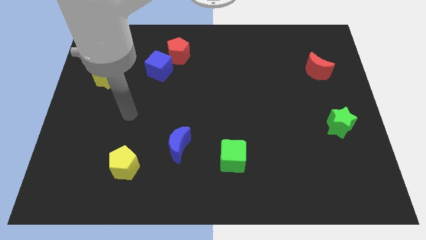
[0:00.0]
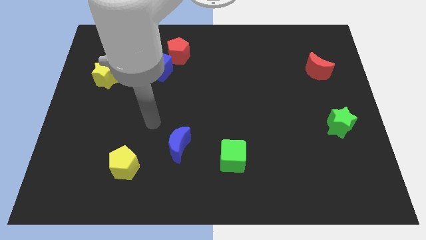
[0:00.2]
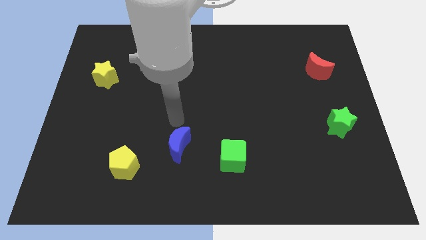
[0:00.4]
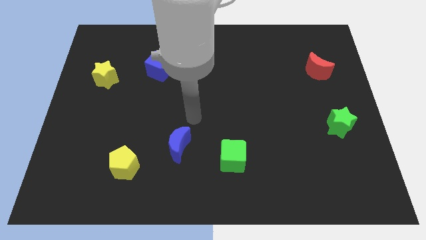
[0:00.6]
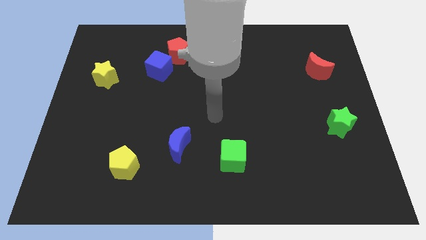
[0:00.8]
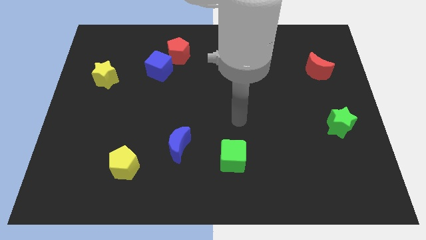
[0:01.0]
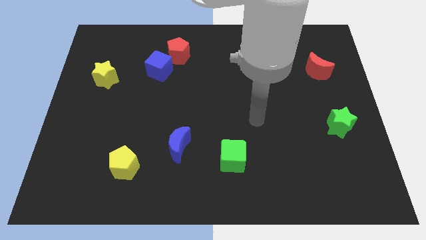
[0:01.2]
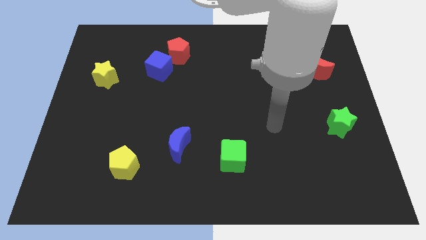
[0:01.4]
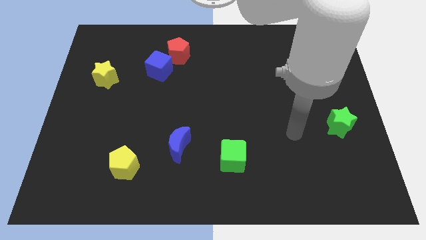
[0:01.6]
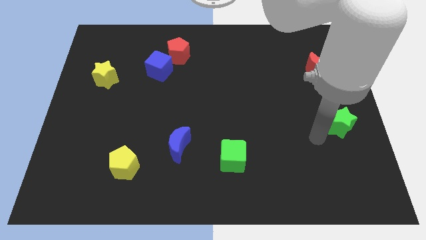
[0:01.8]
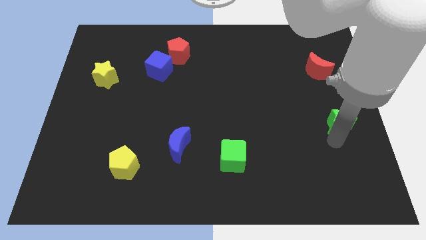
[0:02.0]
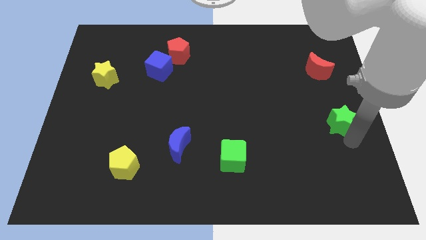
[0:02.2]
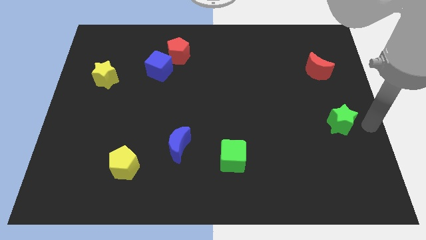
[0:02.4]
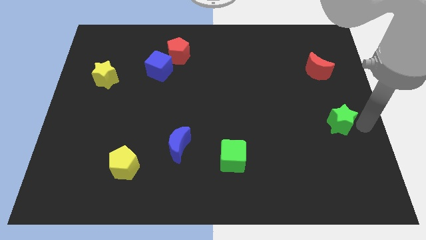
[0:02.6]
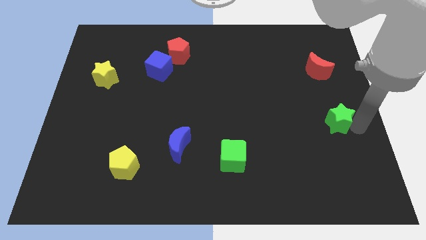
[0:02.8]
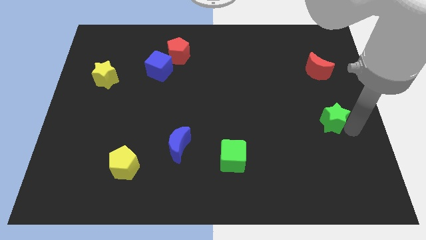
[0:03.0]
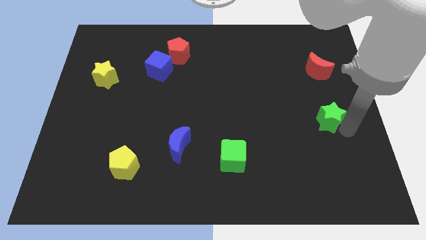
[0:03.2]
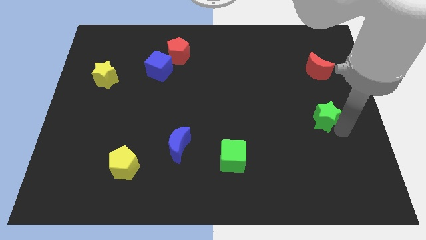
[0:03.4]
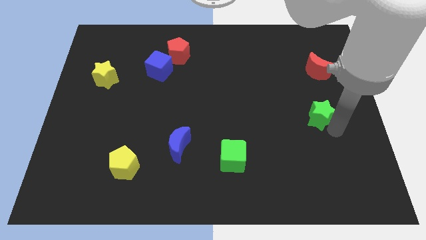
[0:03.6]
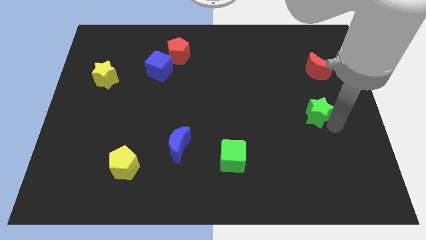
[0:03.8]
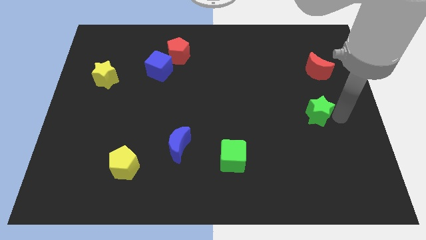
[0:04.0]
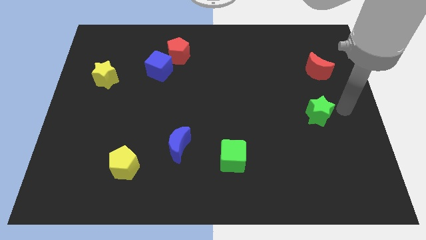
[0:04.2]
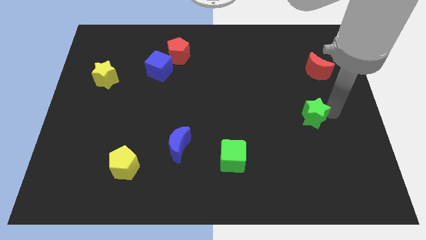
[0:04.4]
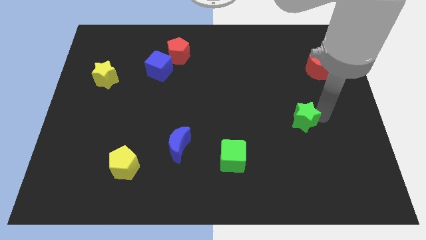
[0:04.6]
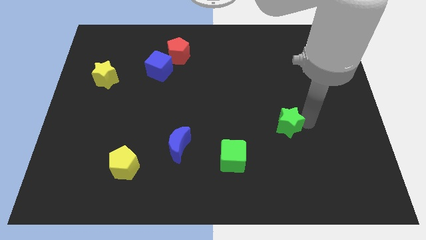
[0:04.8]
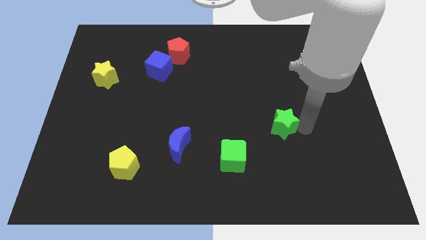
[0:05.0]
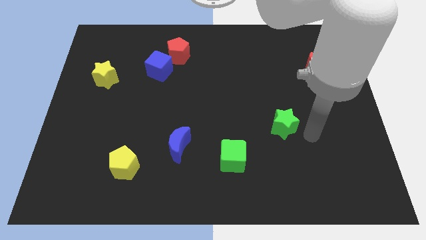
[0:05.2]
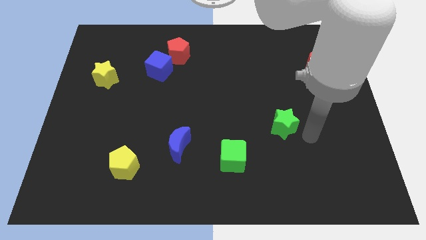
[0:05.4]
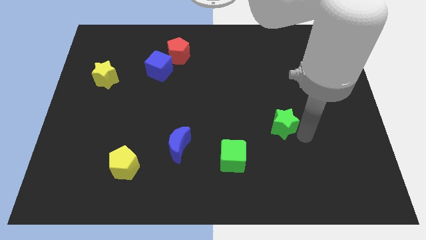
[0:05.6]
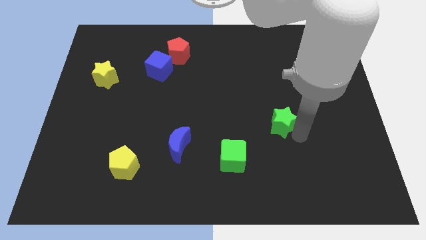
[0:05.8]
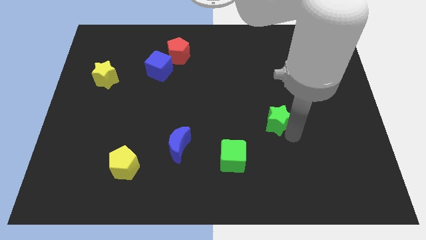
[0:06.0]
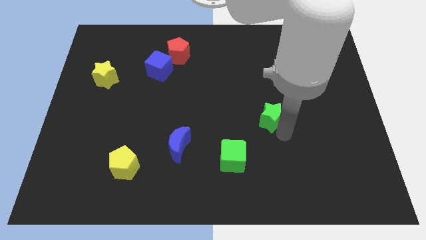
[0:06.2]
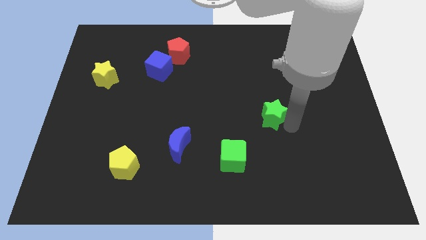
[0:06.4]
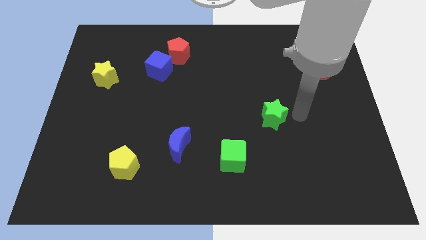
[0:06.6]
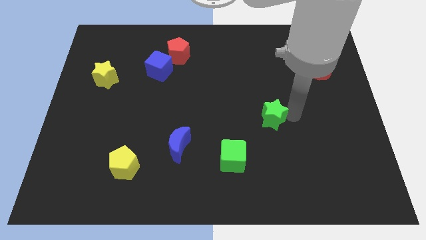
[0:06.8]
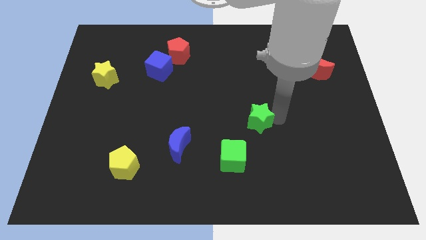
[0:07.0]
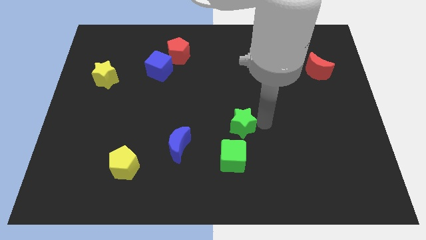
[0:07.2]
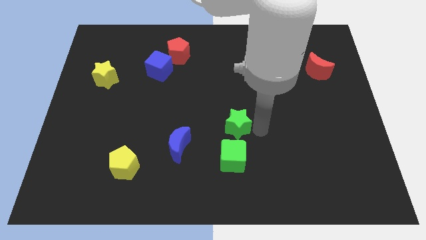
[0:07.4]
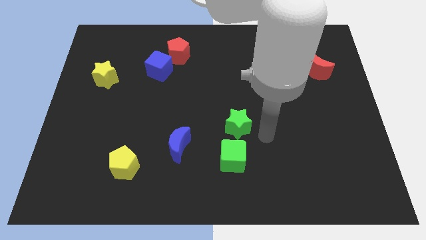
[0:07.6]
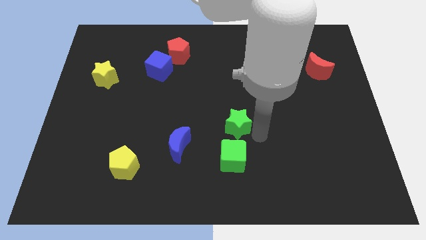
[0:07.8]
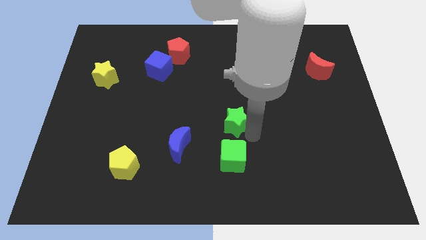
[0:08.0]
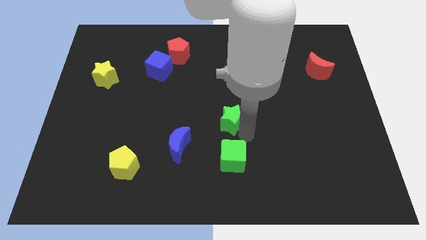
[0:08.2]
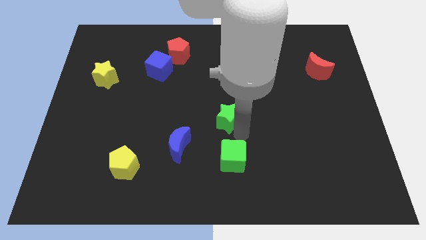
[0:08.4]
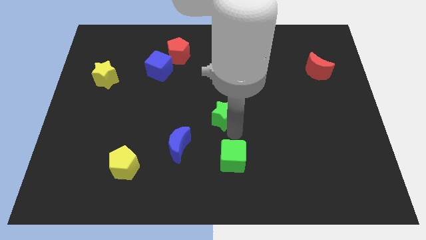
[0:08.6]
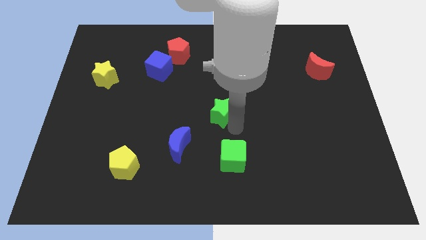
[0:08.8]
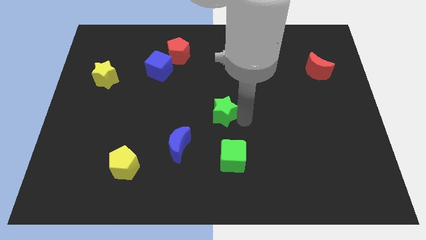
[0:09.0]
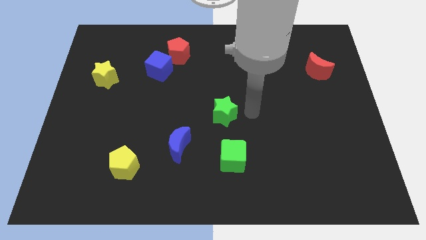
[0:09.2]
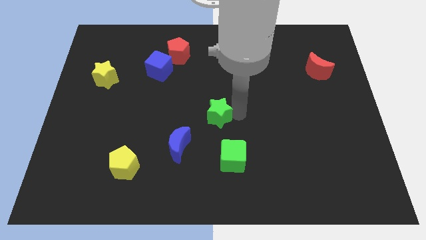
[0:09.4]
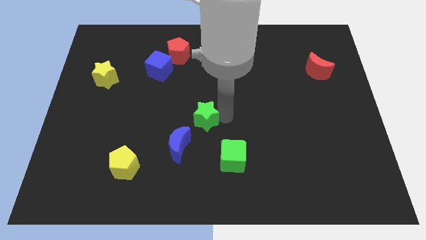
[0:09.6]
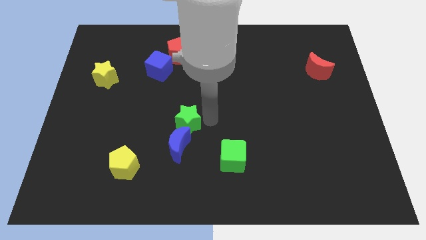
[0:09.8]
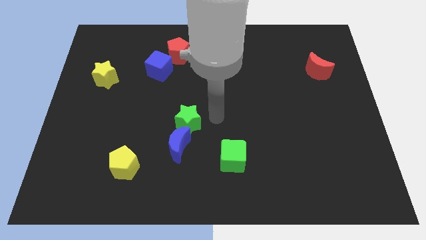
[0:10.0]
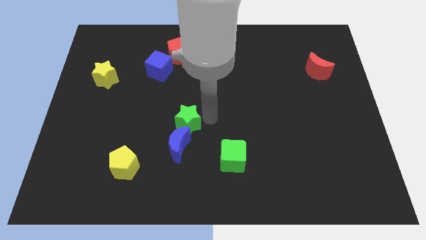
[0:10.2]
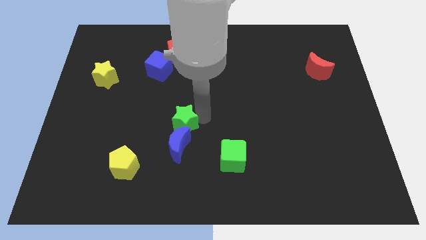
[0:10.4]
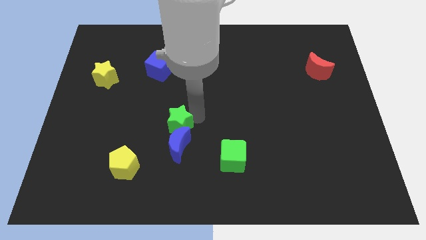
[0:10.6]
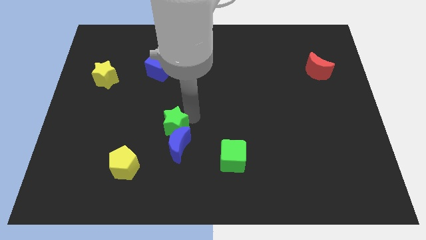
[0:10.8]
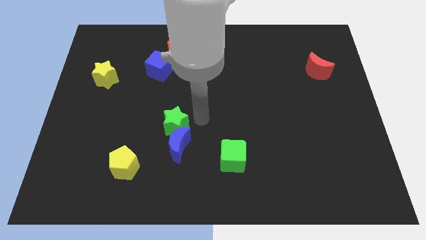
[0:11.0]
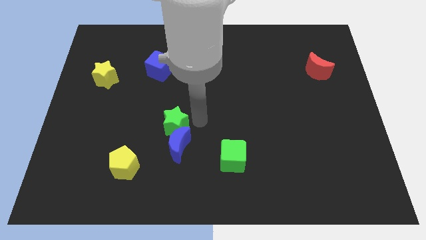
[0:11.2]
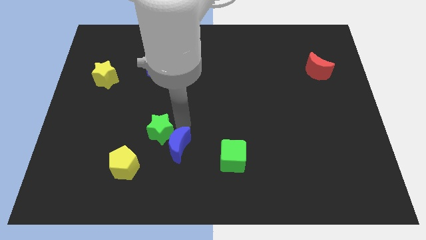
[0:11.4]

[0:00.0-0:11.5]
move the green star to the left of the blue moon

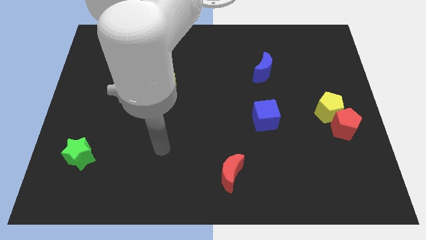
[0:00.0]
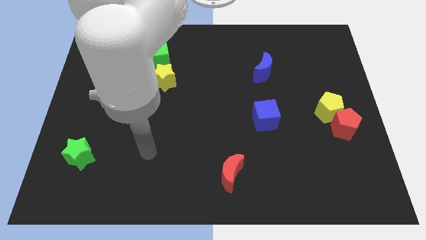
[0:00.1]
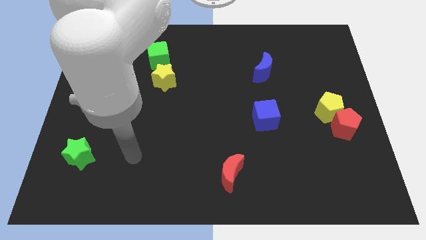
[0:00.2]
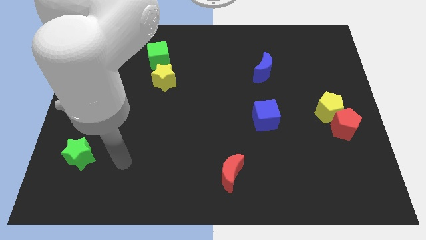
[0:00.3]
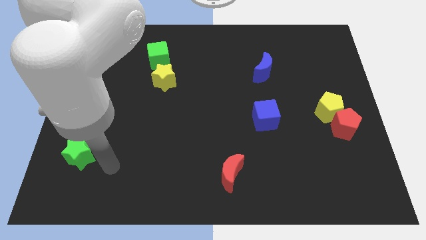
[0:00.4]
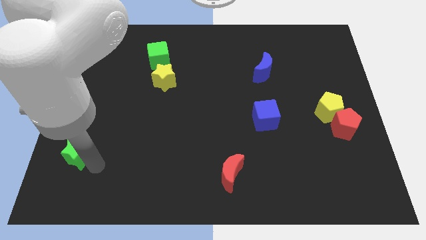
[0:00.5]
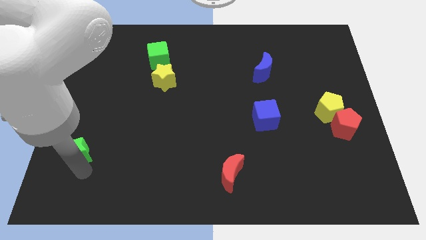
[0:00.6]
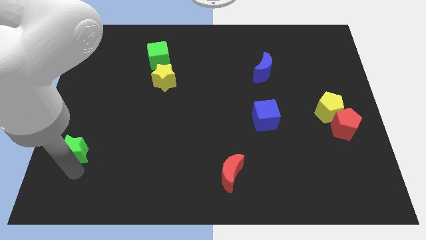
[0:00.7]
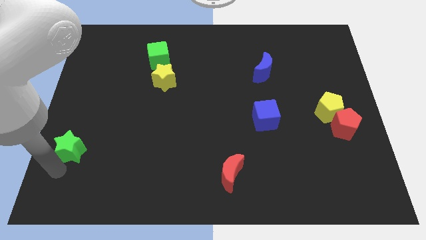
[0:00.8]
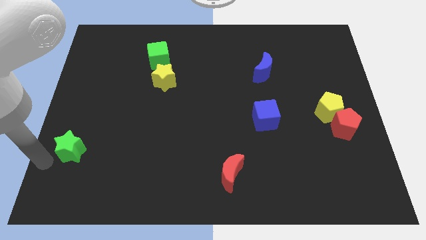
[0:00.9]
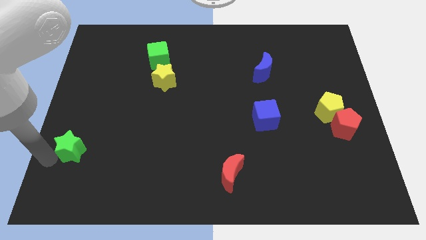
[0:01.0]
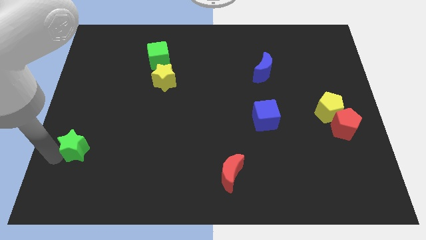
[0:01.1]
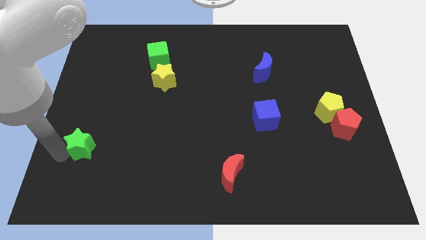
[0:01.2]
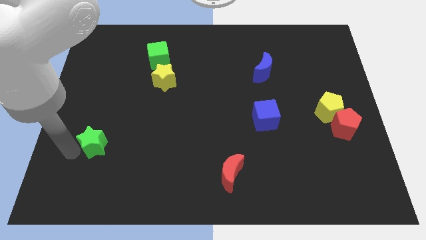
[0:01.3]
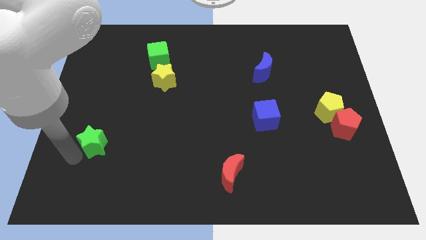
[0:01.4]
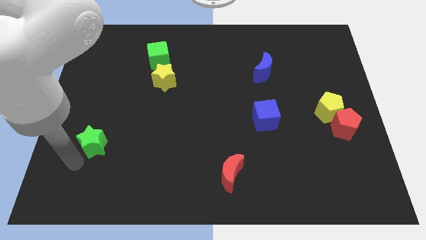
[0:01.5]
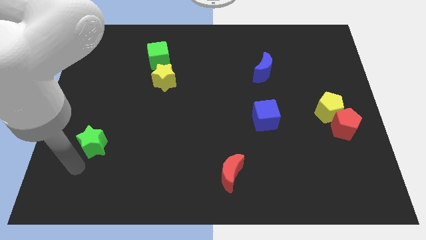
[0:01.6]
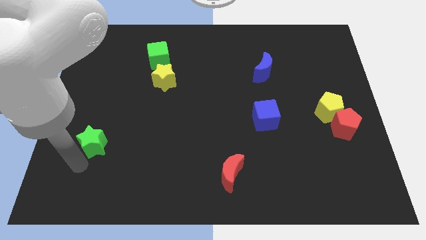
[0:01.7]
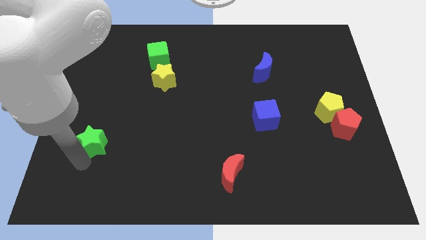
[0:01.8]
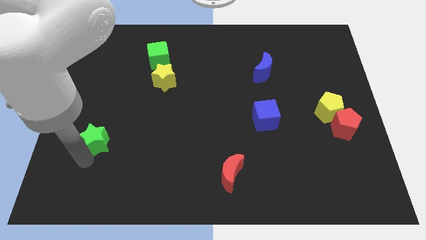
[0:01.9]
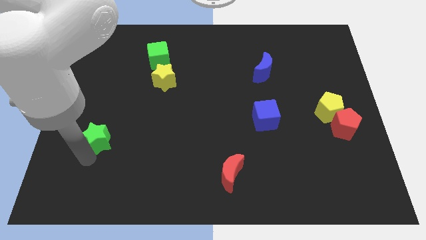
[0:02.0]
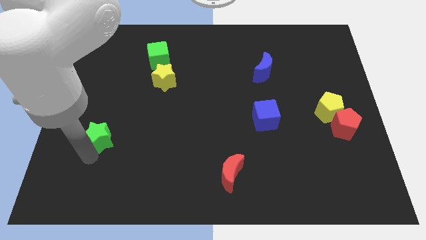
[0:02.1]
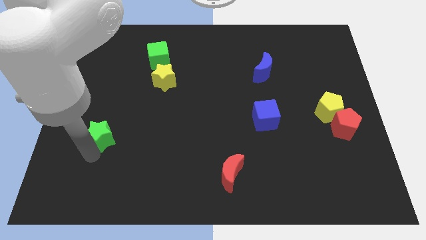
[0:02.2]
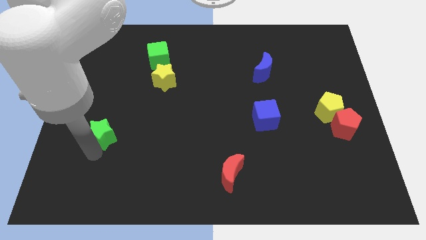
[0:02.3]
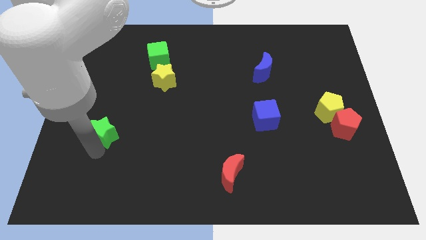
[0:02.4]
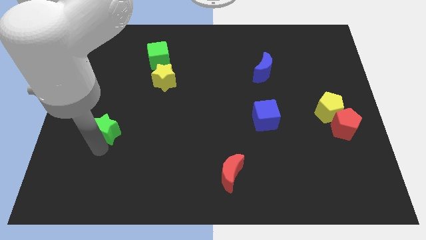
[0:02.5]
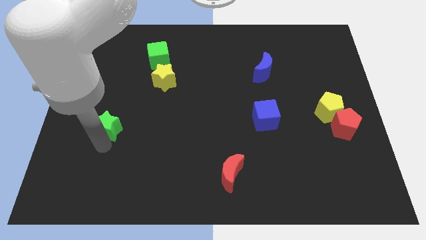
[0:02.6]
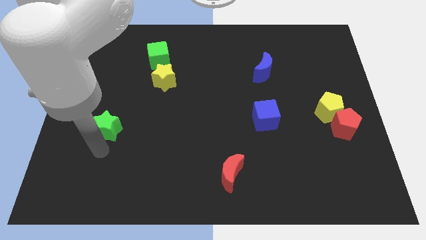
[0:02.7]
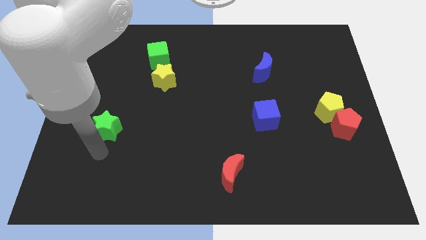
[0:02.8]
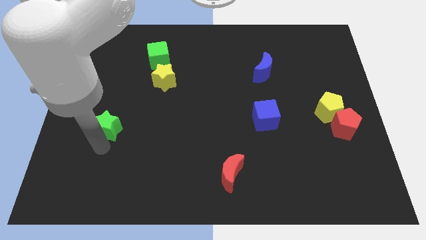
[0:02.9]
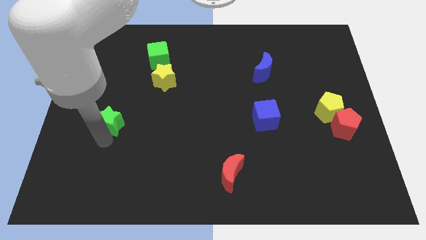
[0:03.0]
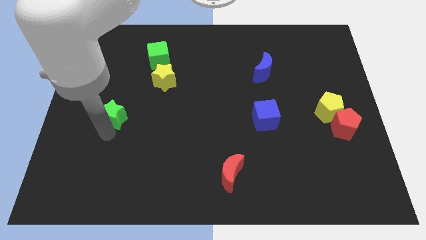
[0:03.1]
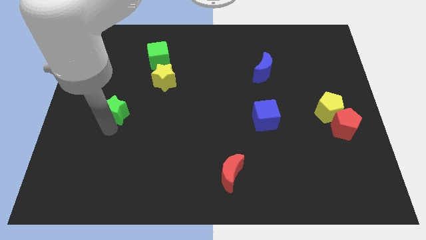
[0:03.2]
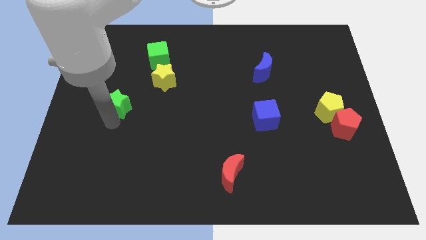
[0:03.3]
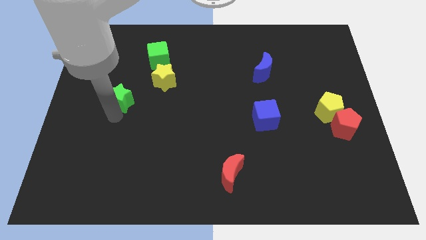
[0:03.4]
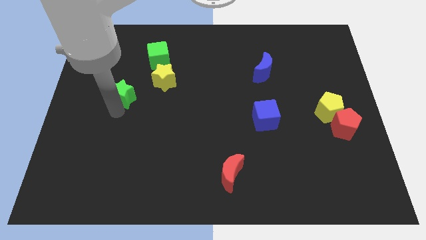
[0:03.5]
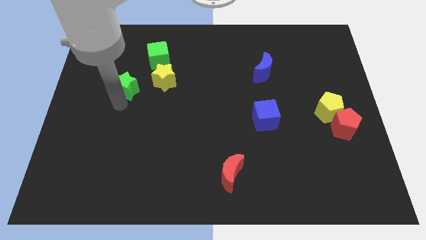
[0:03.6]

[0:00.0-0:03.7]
push the green star to the bottom left of the green cube
